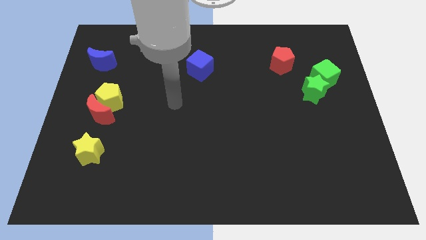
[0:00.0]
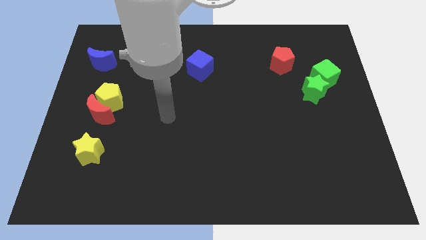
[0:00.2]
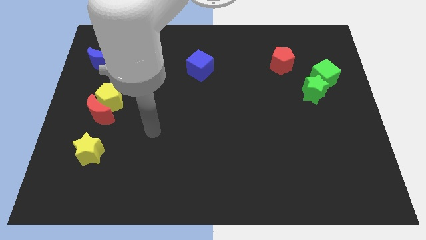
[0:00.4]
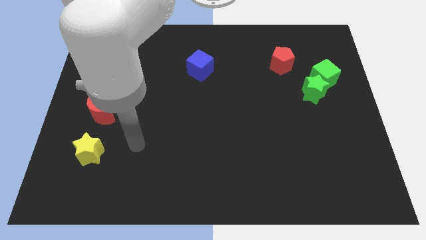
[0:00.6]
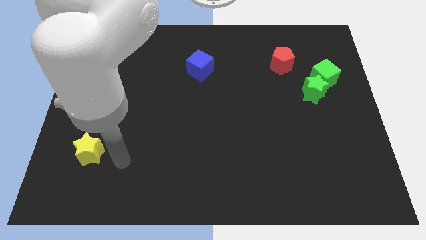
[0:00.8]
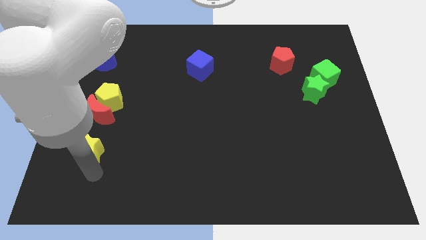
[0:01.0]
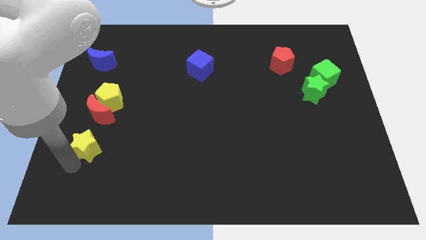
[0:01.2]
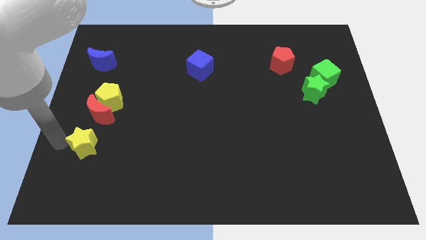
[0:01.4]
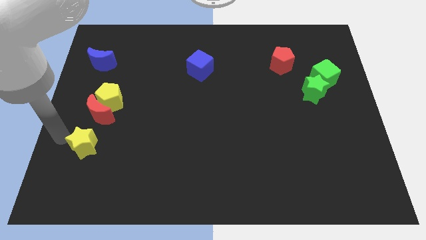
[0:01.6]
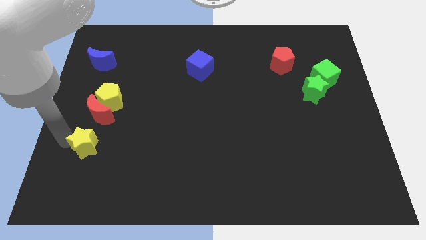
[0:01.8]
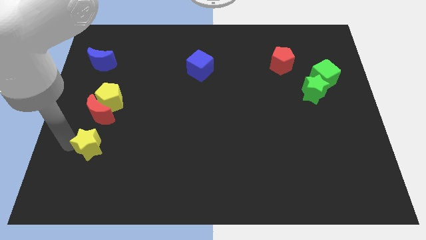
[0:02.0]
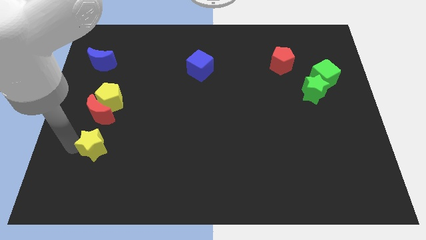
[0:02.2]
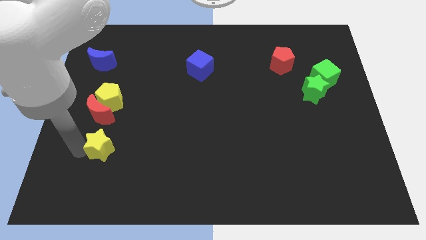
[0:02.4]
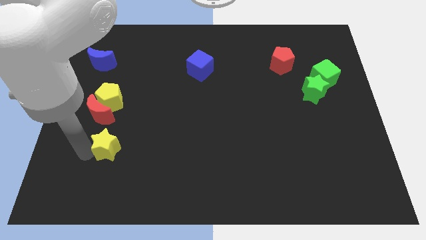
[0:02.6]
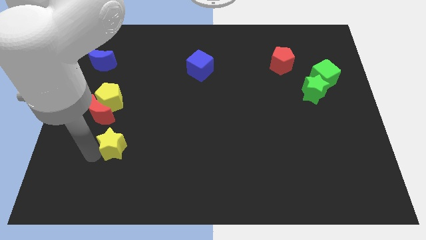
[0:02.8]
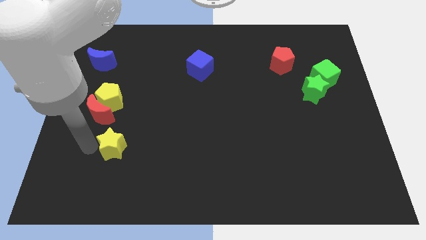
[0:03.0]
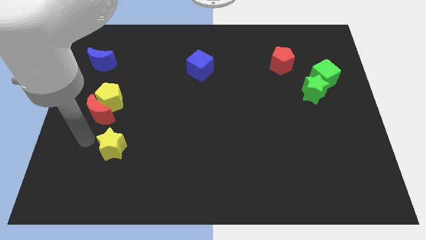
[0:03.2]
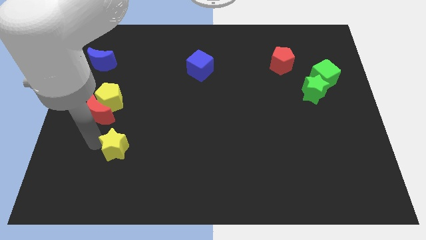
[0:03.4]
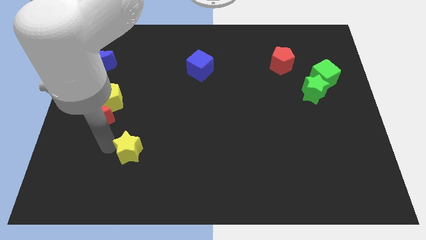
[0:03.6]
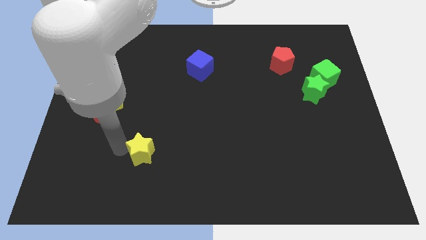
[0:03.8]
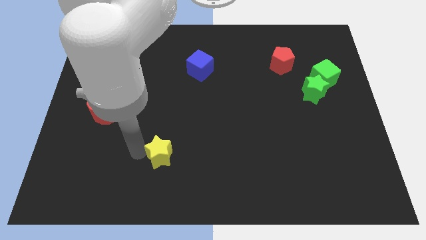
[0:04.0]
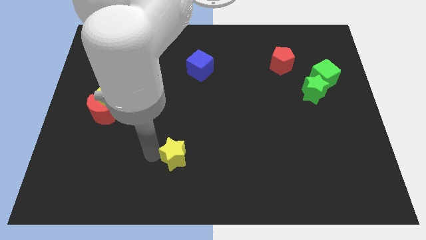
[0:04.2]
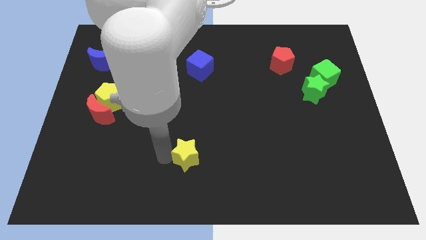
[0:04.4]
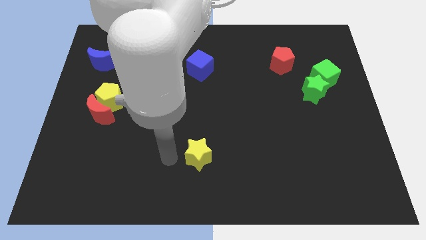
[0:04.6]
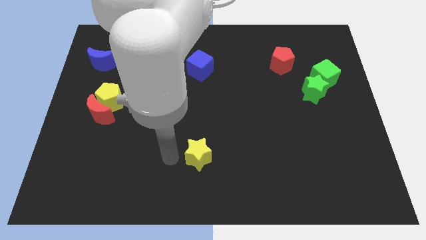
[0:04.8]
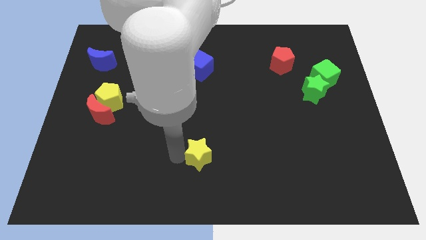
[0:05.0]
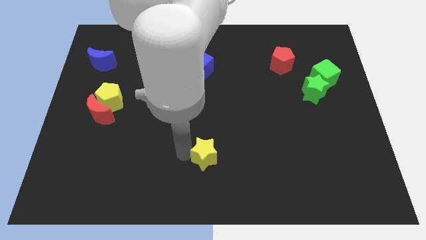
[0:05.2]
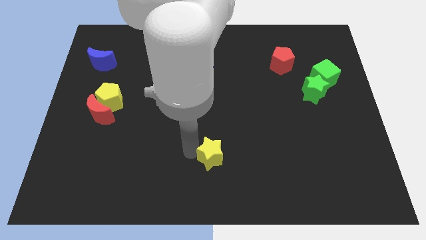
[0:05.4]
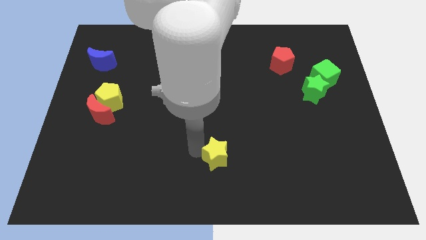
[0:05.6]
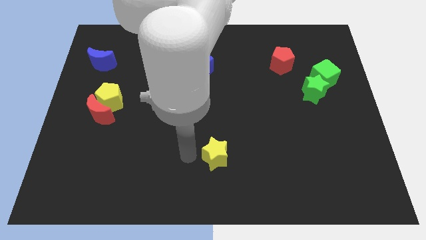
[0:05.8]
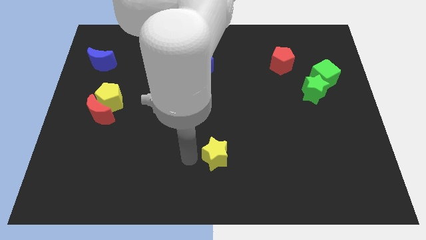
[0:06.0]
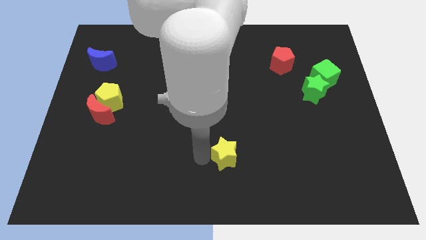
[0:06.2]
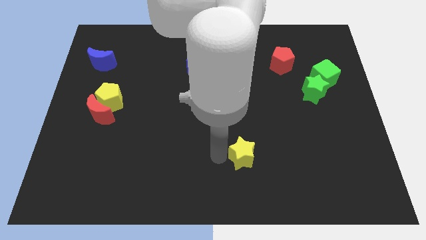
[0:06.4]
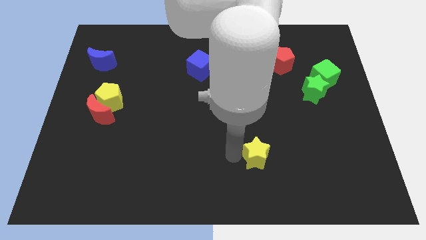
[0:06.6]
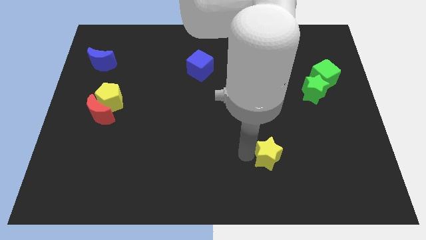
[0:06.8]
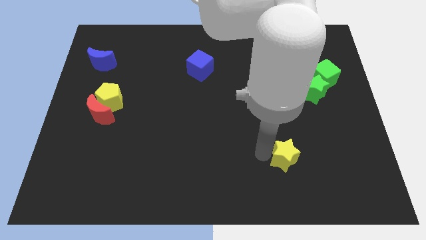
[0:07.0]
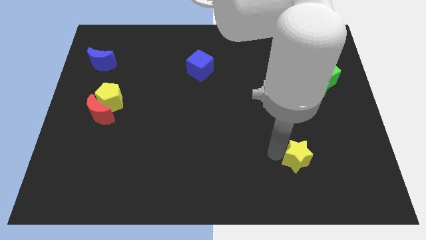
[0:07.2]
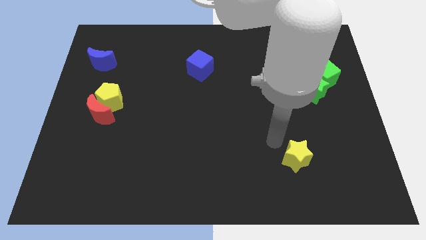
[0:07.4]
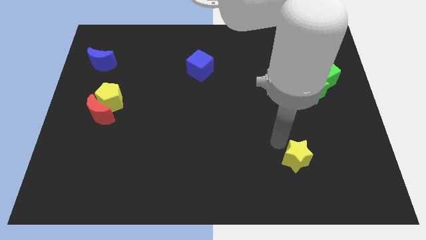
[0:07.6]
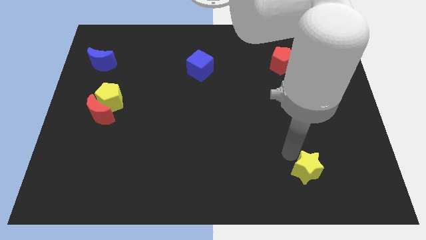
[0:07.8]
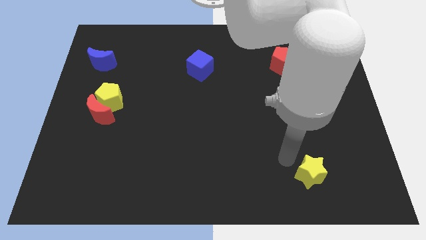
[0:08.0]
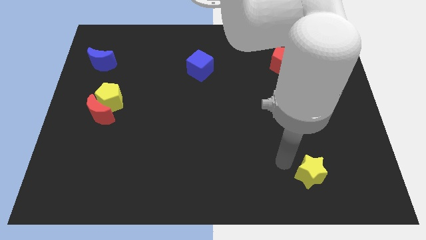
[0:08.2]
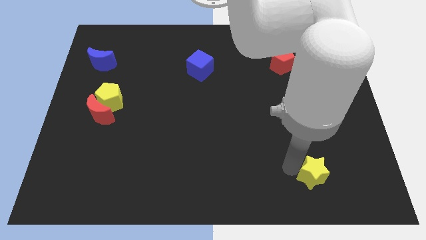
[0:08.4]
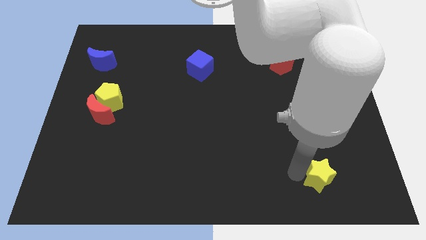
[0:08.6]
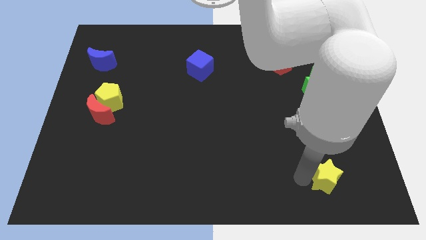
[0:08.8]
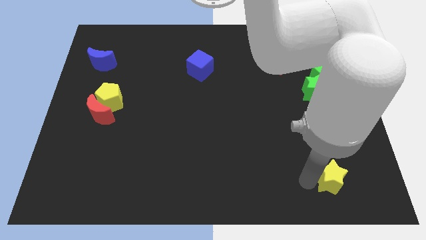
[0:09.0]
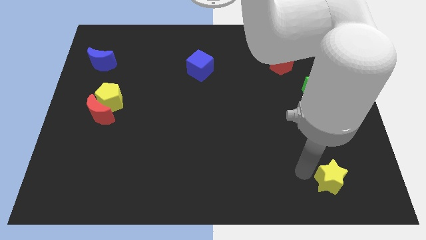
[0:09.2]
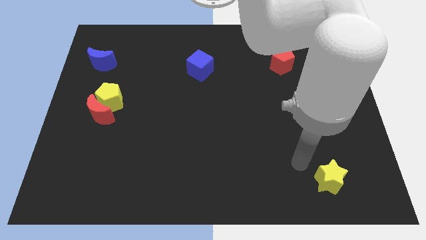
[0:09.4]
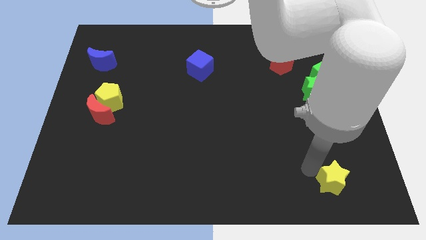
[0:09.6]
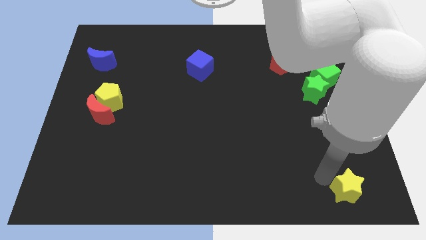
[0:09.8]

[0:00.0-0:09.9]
put the yellow star to the bottom right corner

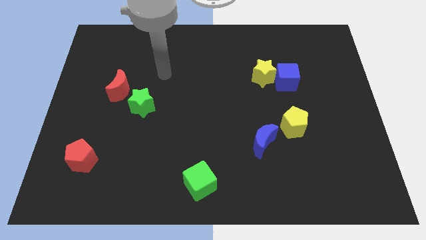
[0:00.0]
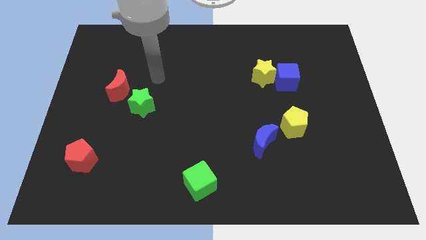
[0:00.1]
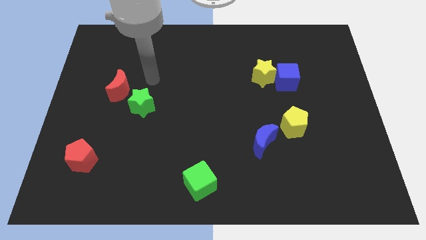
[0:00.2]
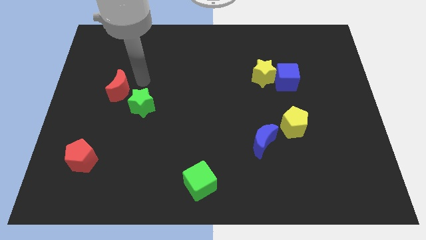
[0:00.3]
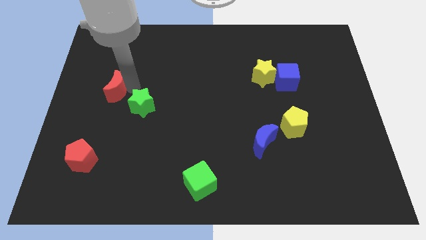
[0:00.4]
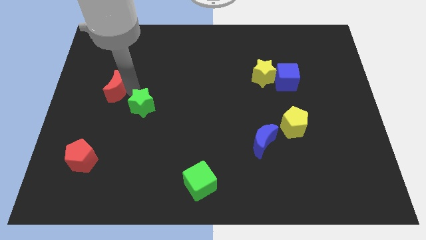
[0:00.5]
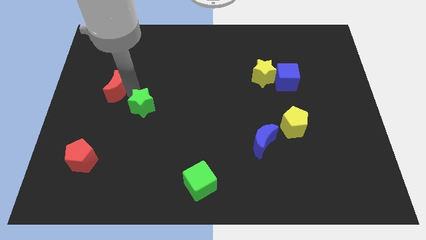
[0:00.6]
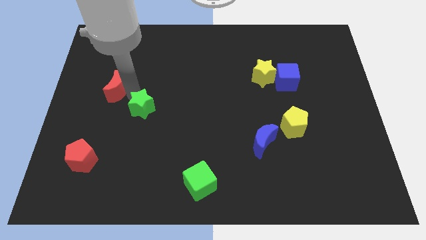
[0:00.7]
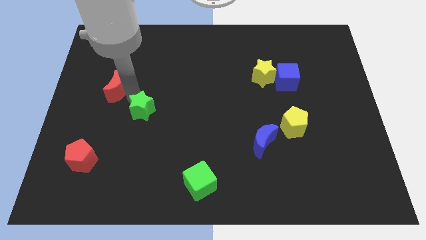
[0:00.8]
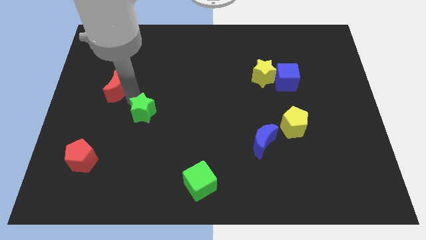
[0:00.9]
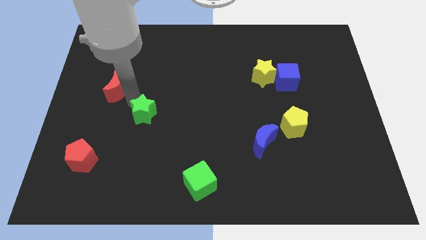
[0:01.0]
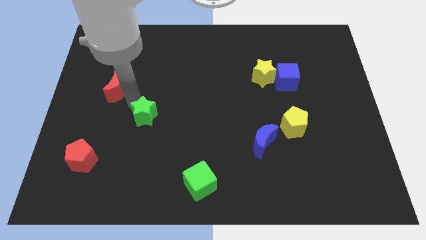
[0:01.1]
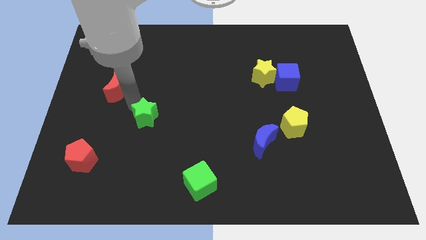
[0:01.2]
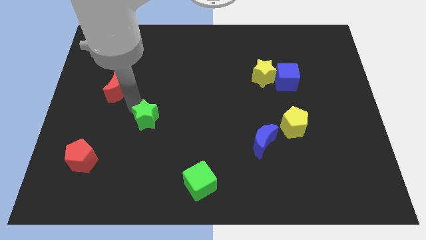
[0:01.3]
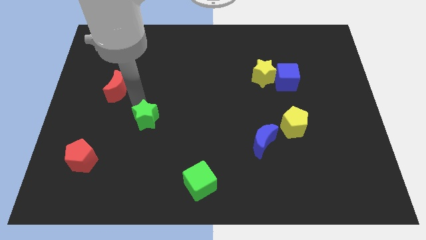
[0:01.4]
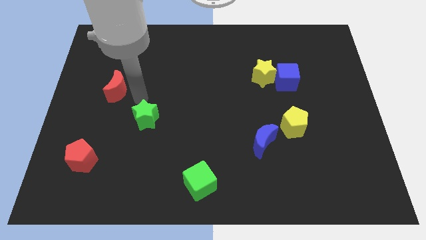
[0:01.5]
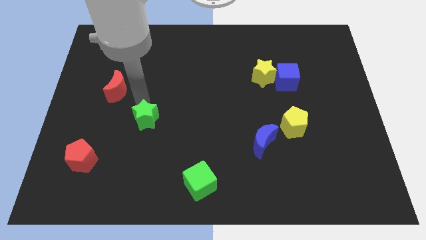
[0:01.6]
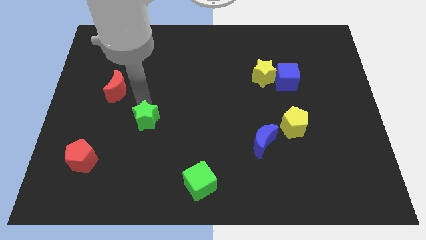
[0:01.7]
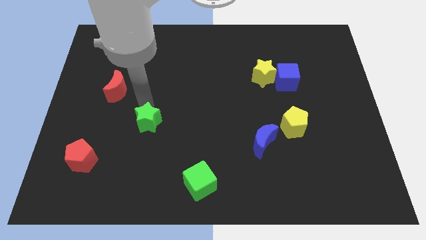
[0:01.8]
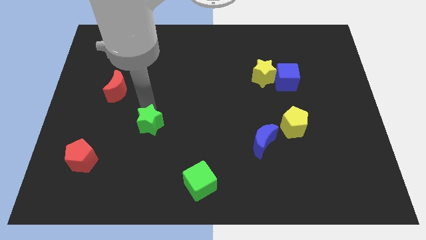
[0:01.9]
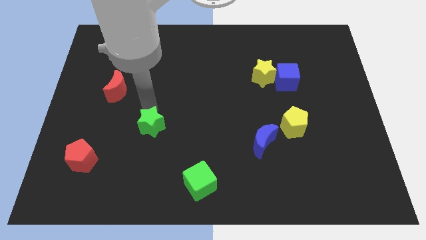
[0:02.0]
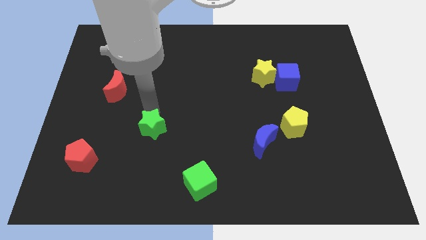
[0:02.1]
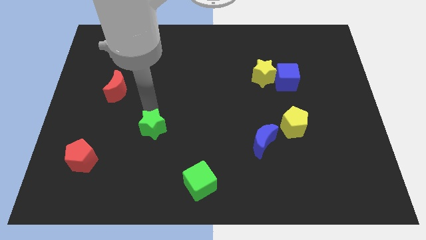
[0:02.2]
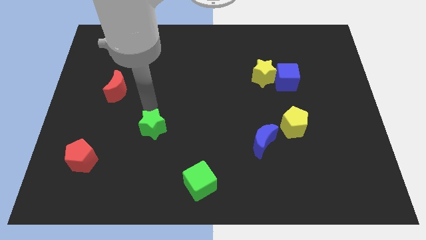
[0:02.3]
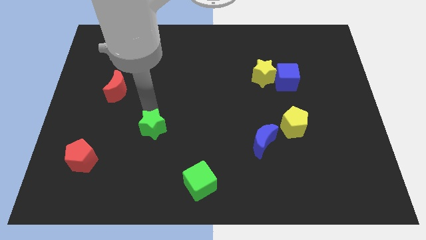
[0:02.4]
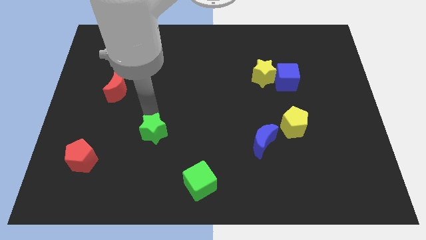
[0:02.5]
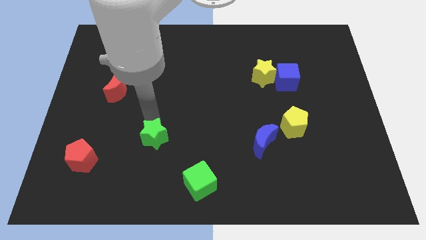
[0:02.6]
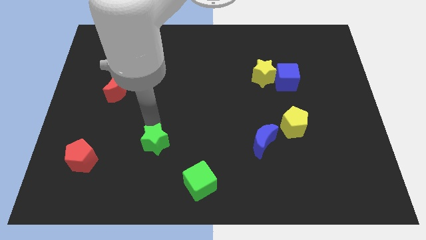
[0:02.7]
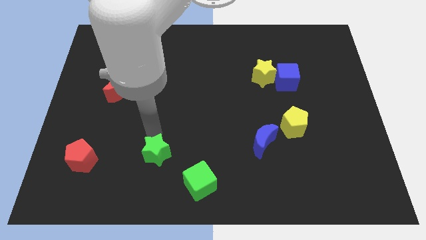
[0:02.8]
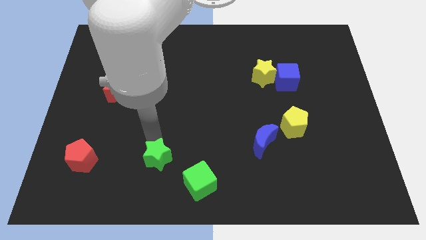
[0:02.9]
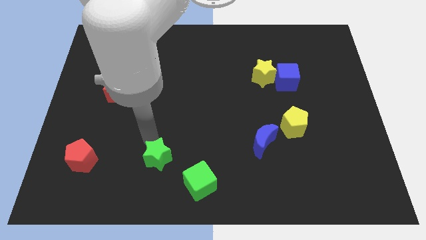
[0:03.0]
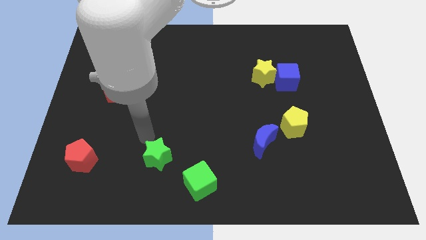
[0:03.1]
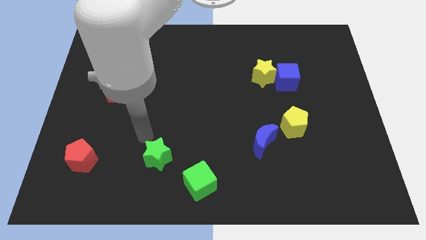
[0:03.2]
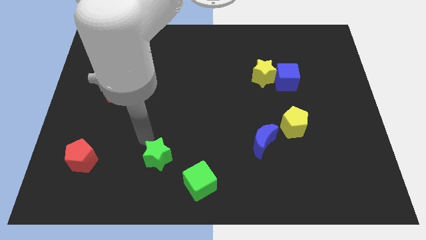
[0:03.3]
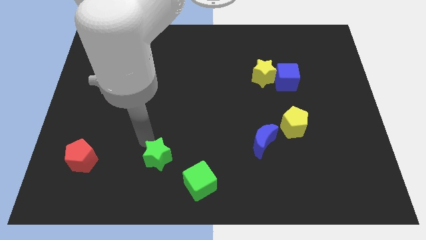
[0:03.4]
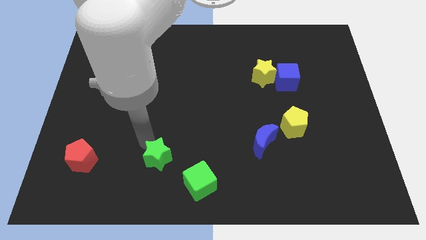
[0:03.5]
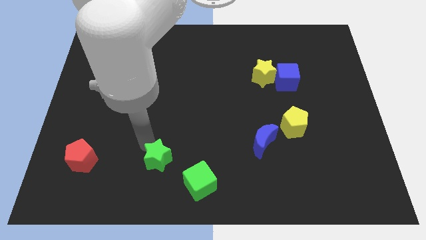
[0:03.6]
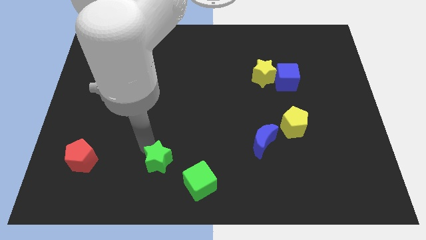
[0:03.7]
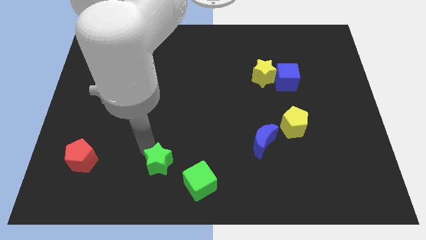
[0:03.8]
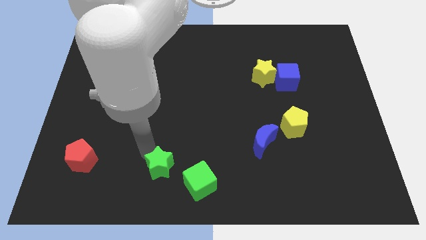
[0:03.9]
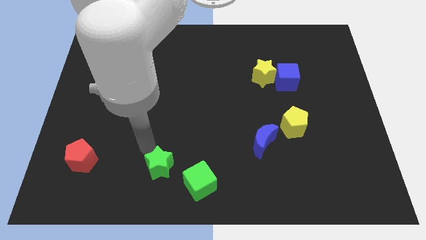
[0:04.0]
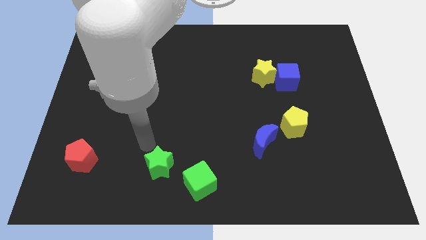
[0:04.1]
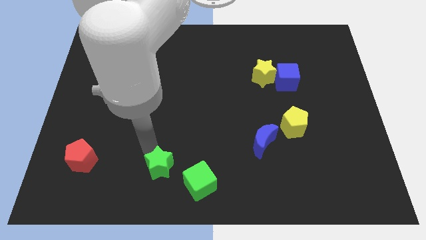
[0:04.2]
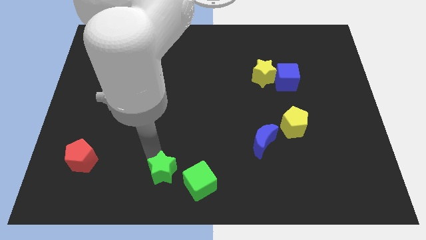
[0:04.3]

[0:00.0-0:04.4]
slide the green star to the bottom side
